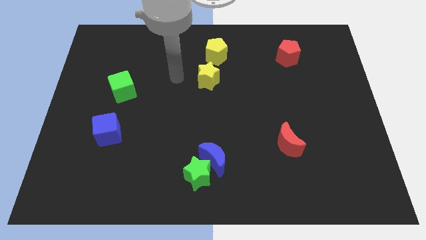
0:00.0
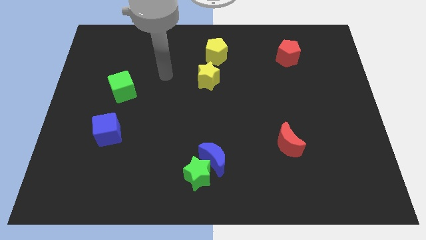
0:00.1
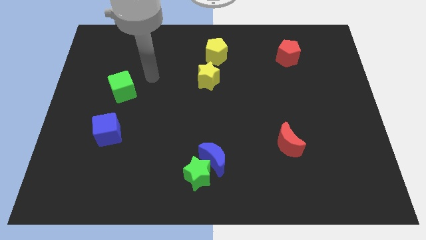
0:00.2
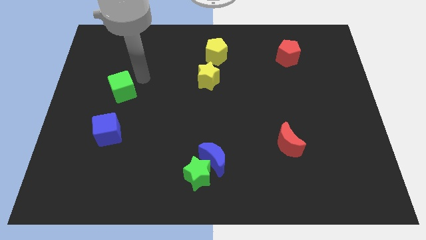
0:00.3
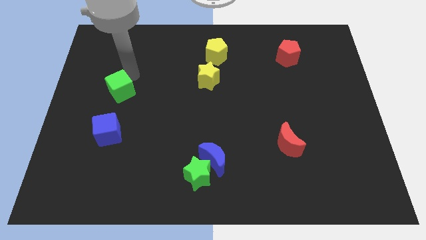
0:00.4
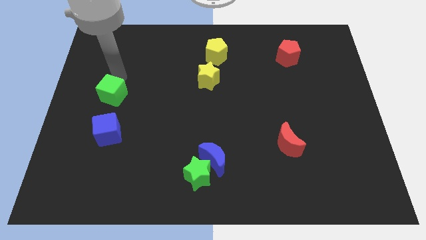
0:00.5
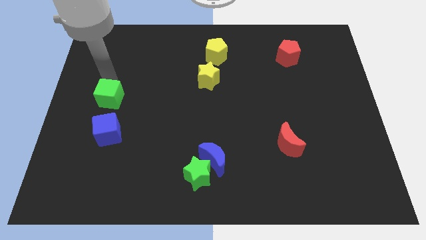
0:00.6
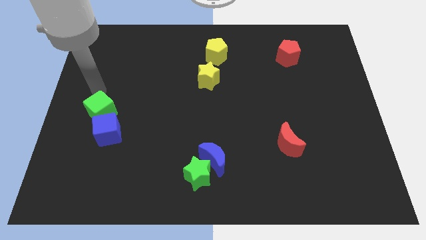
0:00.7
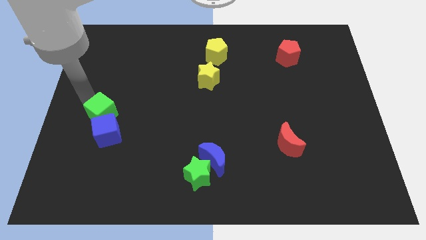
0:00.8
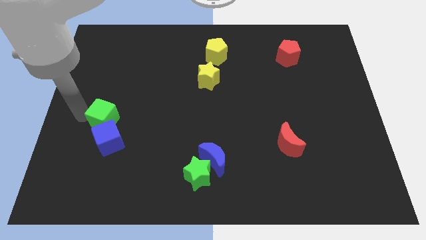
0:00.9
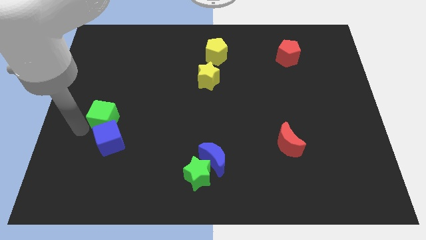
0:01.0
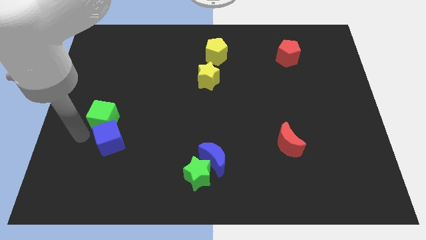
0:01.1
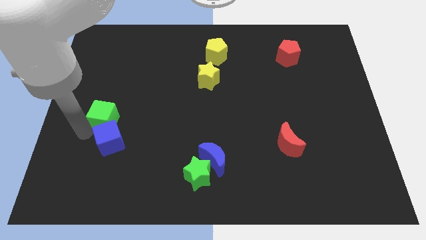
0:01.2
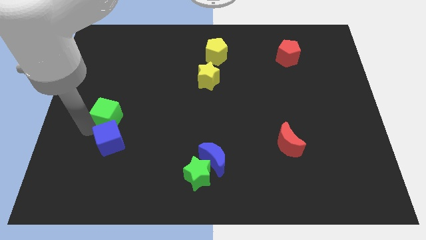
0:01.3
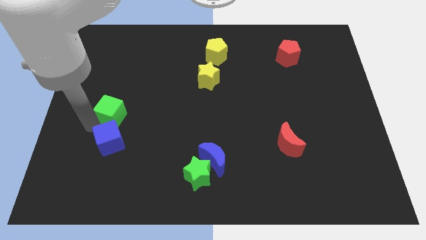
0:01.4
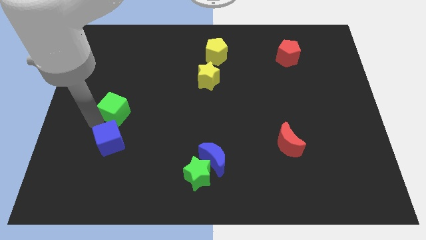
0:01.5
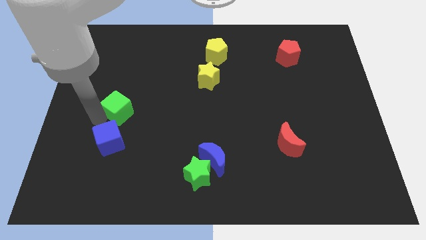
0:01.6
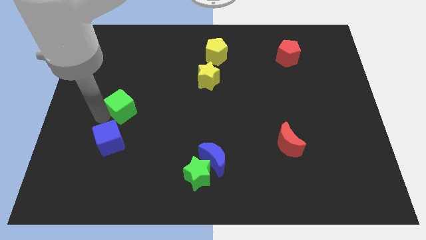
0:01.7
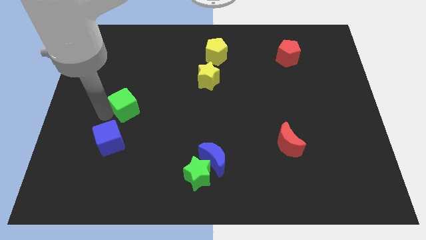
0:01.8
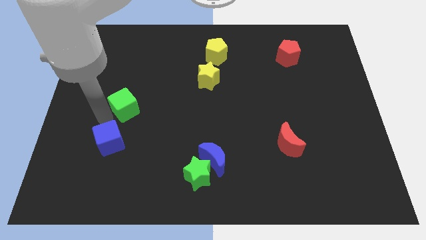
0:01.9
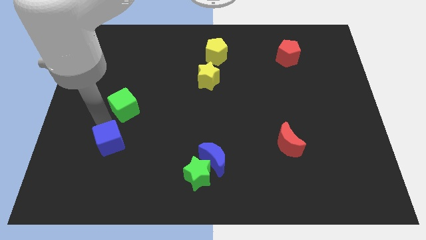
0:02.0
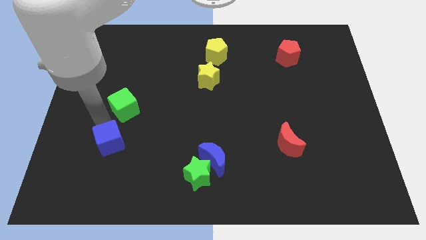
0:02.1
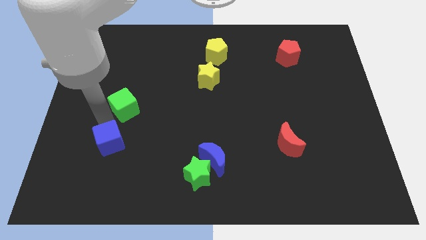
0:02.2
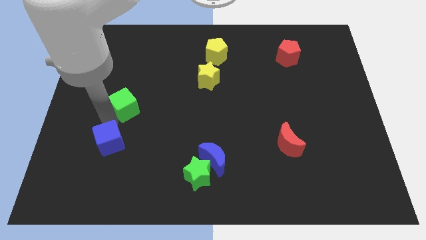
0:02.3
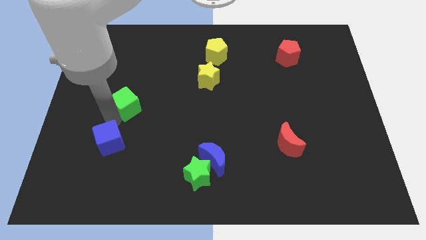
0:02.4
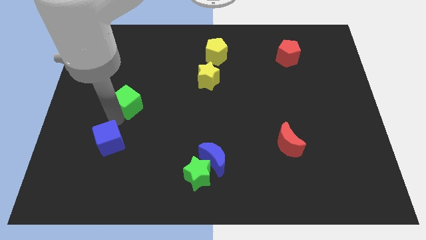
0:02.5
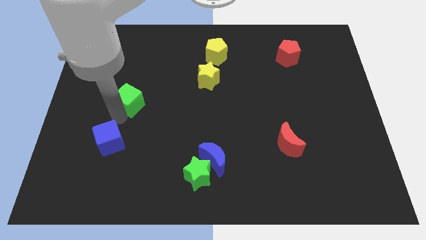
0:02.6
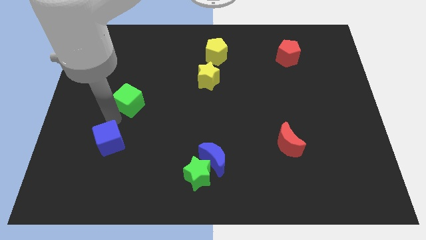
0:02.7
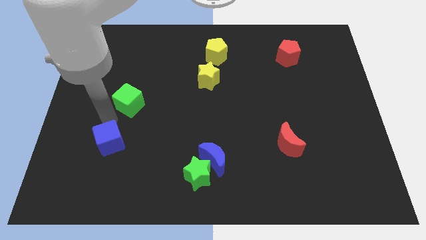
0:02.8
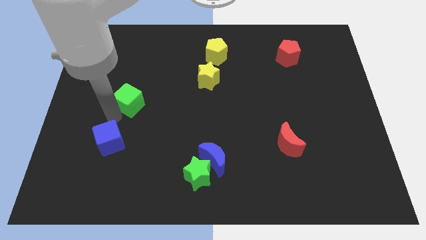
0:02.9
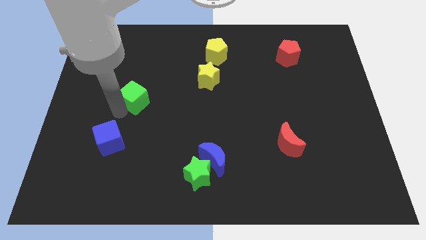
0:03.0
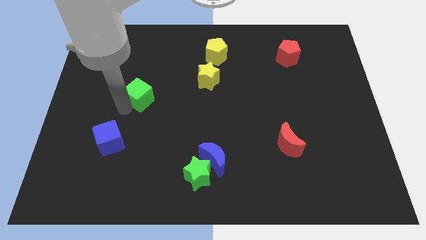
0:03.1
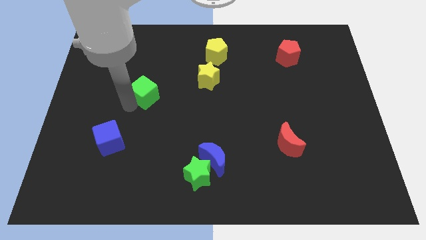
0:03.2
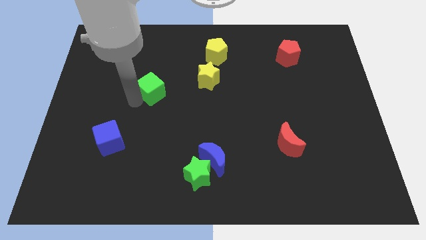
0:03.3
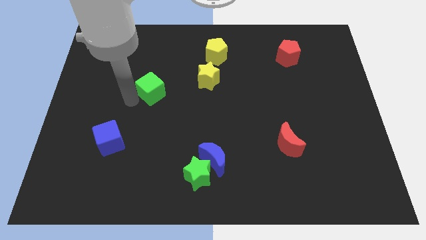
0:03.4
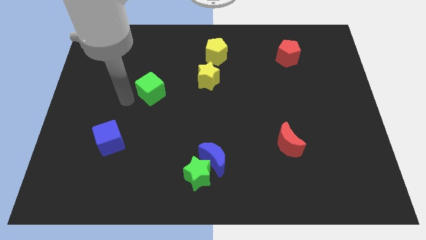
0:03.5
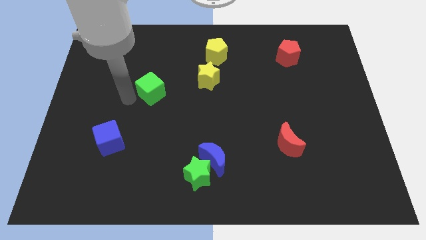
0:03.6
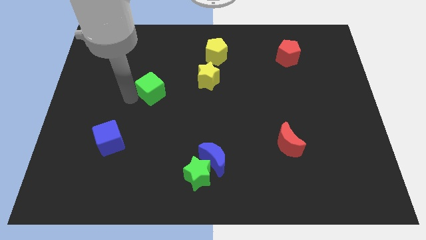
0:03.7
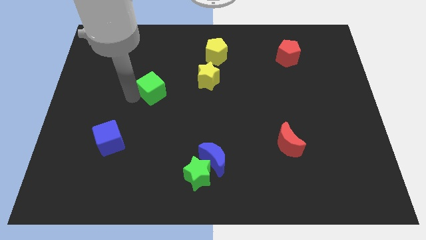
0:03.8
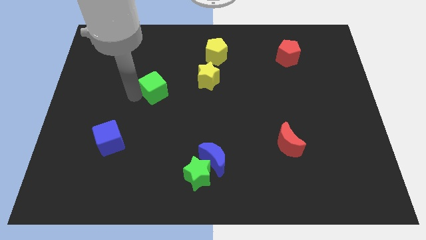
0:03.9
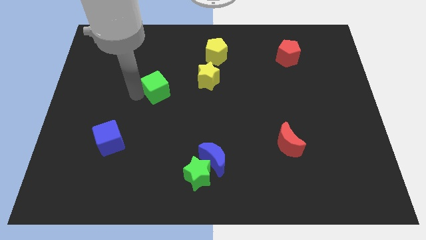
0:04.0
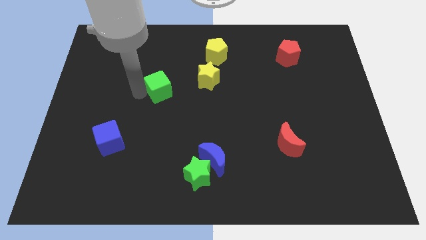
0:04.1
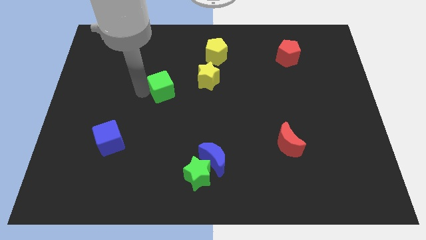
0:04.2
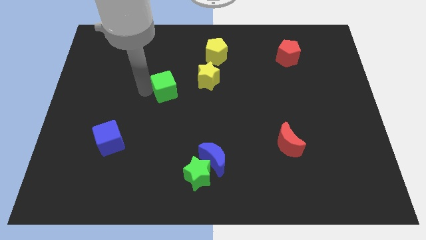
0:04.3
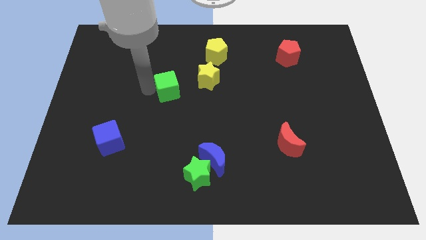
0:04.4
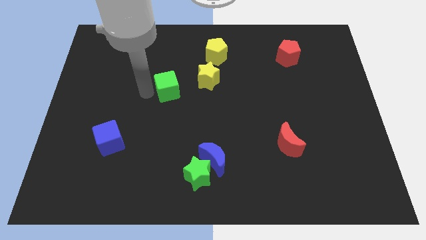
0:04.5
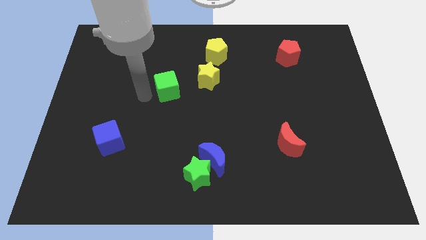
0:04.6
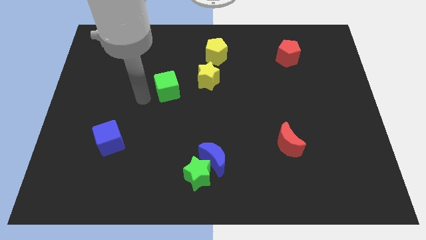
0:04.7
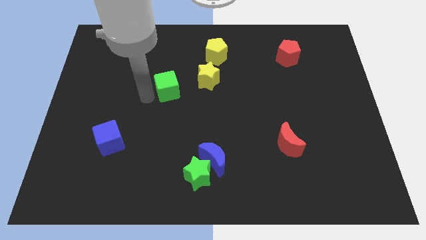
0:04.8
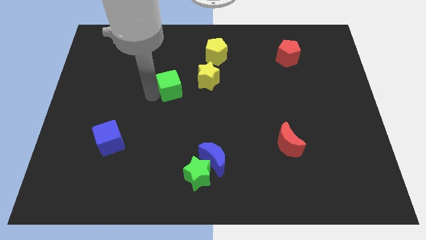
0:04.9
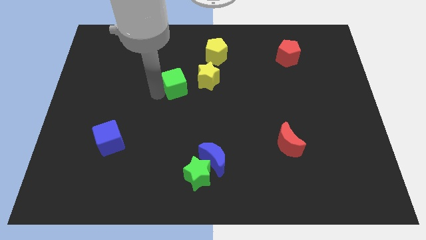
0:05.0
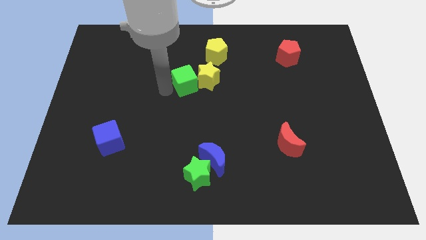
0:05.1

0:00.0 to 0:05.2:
put the green cube to the yellow star

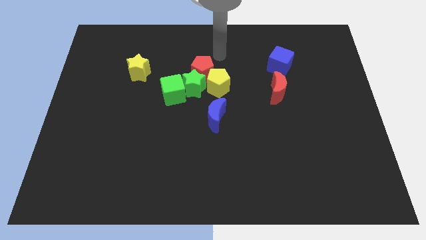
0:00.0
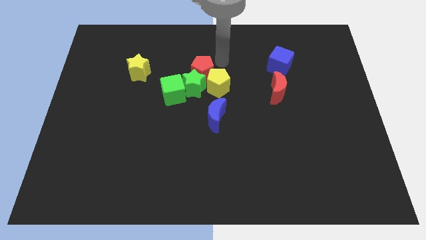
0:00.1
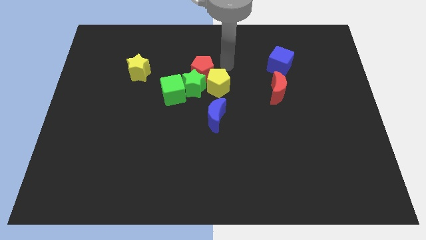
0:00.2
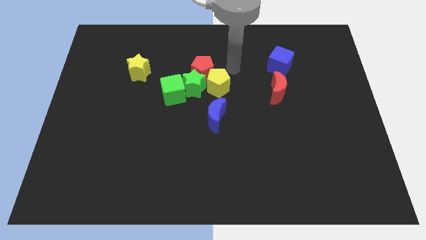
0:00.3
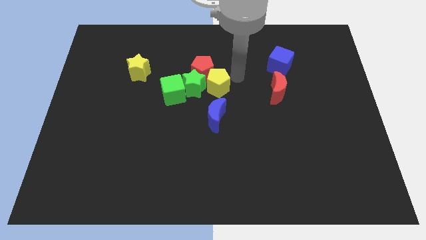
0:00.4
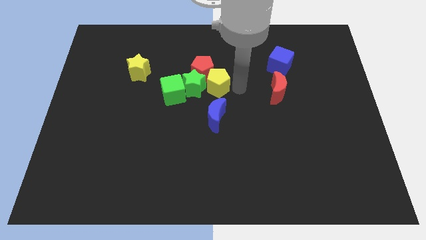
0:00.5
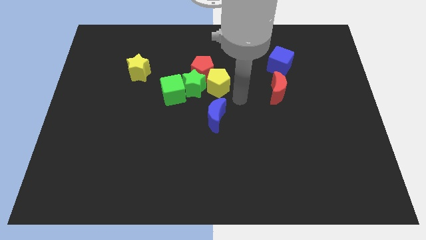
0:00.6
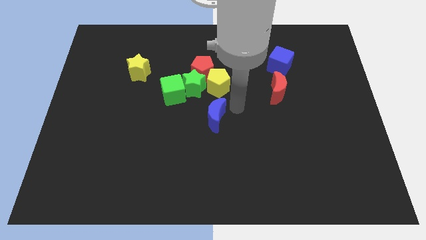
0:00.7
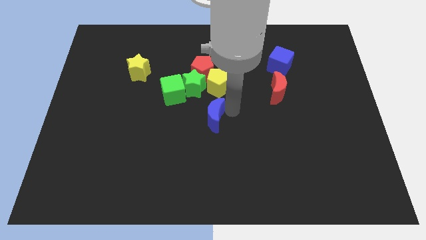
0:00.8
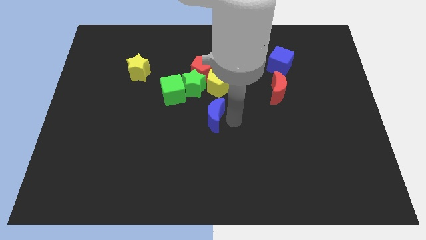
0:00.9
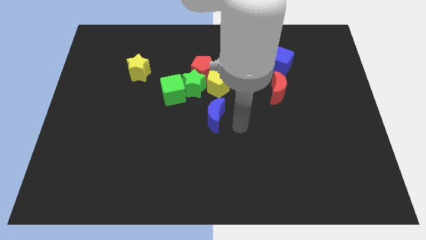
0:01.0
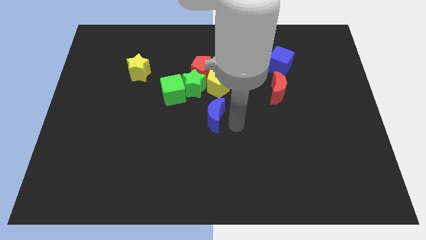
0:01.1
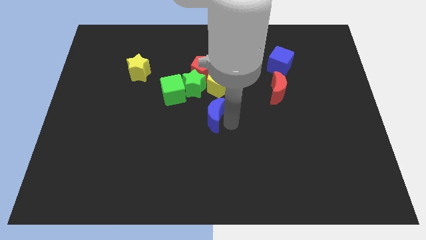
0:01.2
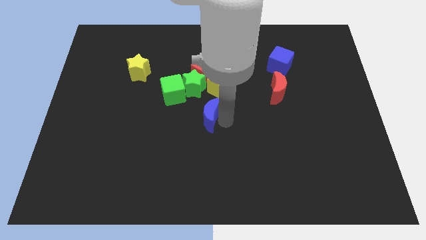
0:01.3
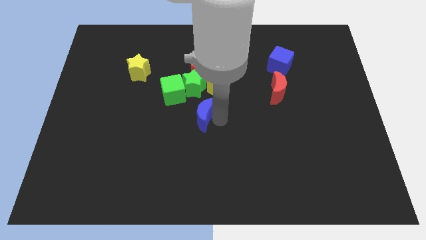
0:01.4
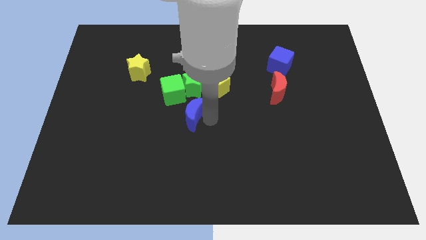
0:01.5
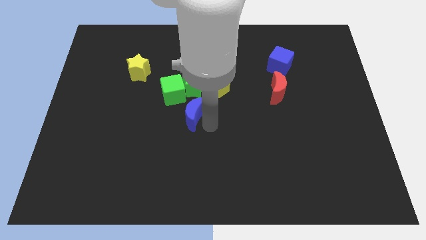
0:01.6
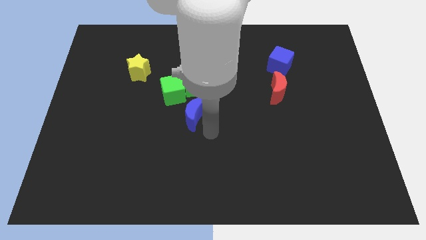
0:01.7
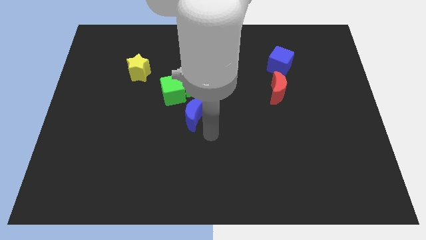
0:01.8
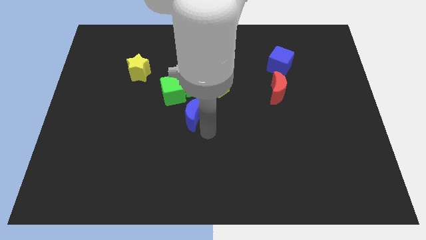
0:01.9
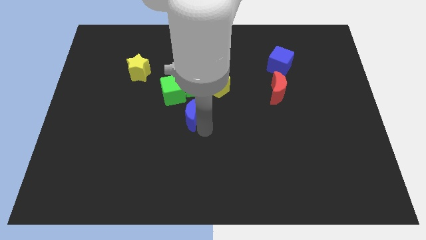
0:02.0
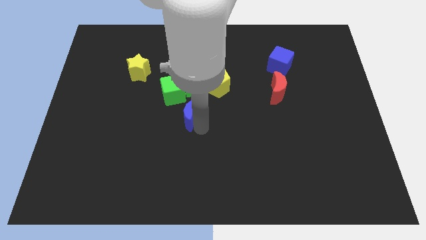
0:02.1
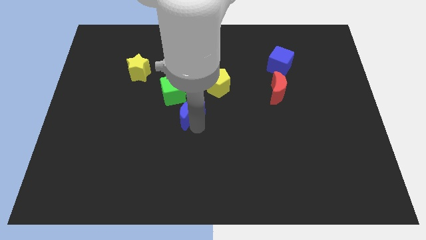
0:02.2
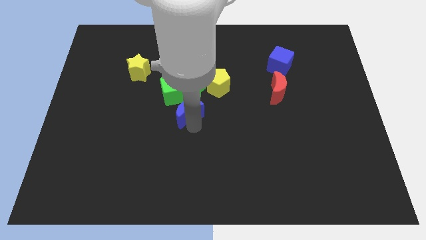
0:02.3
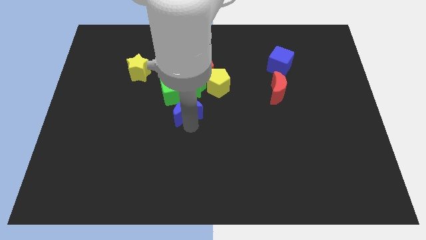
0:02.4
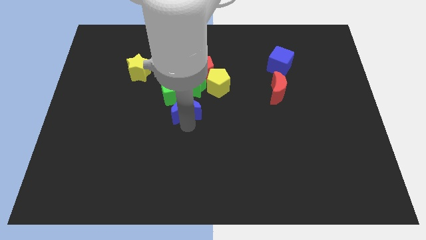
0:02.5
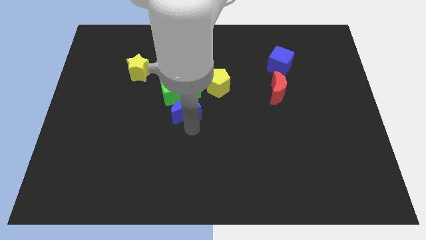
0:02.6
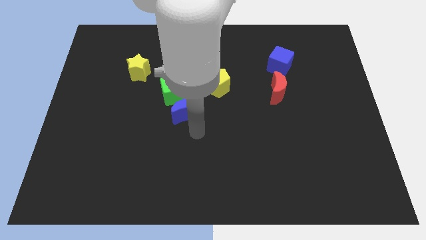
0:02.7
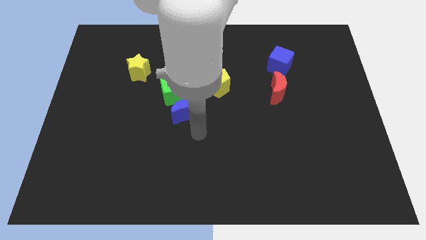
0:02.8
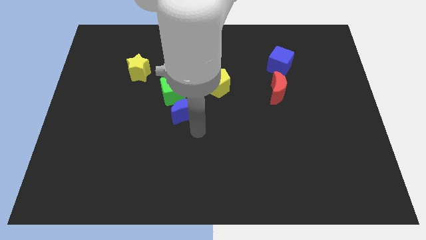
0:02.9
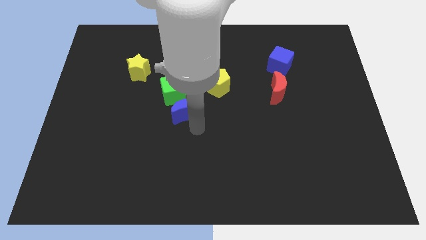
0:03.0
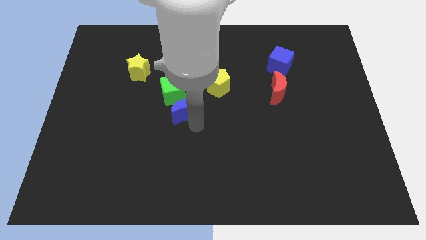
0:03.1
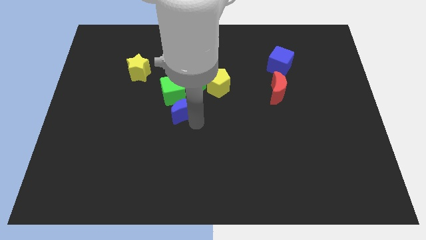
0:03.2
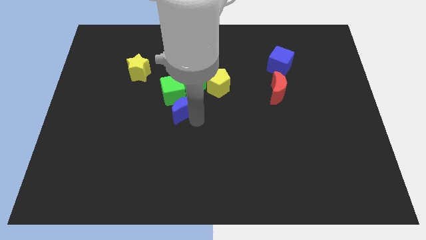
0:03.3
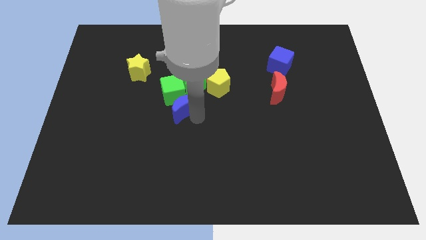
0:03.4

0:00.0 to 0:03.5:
slide the blue moon towards the green cube
